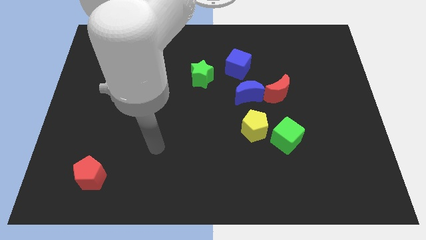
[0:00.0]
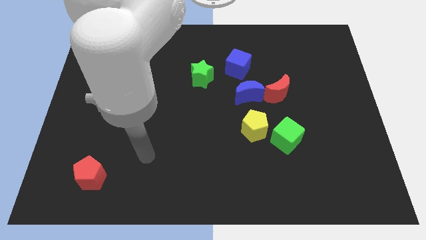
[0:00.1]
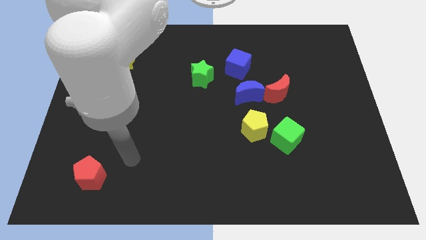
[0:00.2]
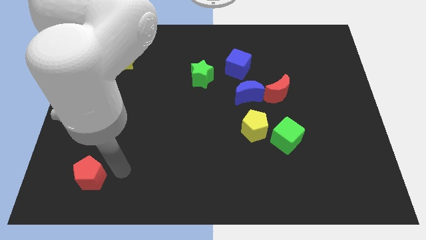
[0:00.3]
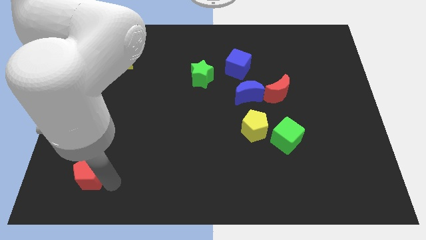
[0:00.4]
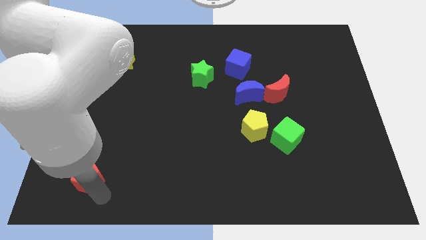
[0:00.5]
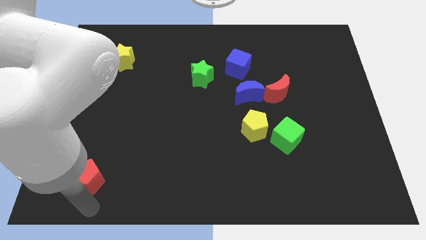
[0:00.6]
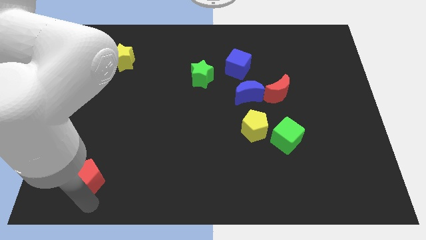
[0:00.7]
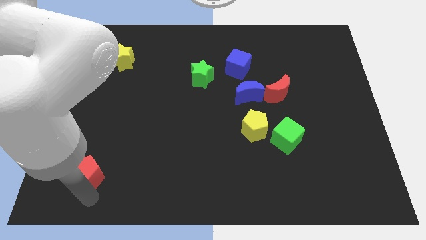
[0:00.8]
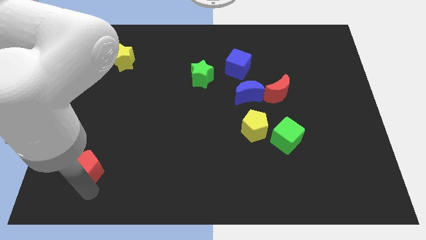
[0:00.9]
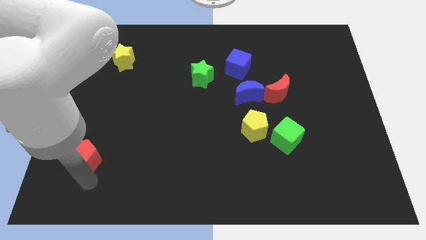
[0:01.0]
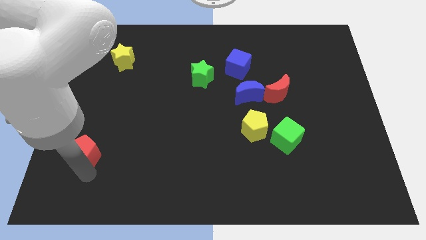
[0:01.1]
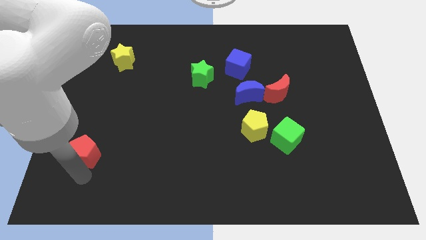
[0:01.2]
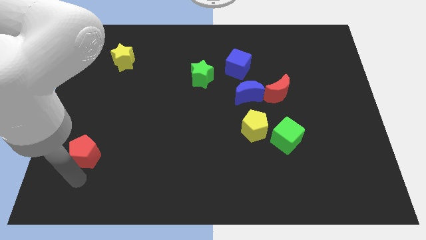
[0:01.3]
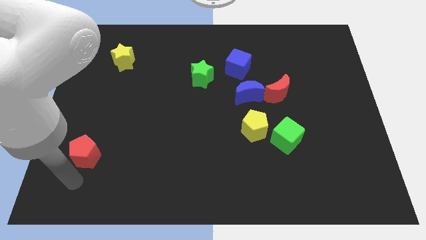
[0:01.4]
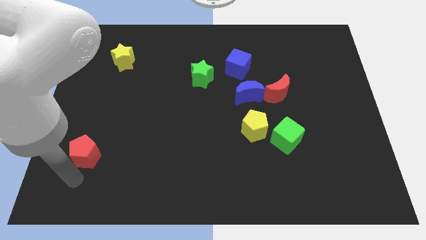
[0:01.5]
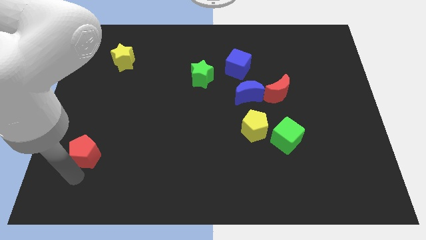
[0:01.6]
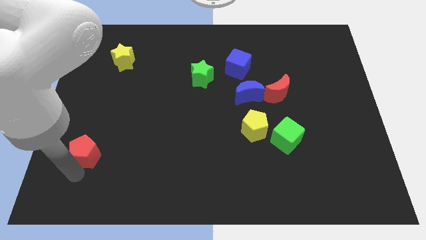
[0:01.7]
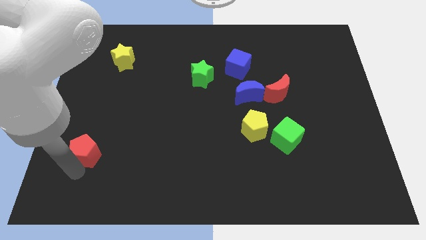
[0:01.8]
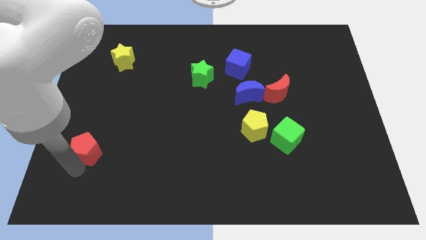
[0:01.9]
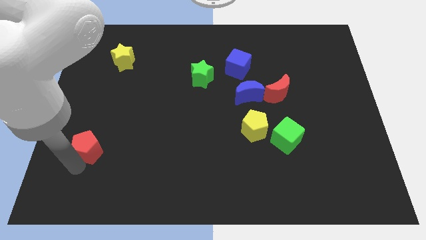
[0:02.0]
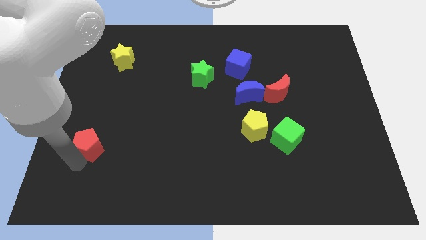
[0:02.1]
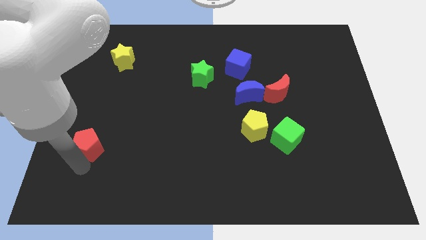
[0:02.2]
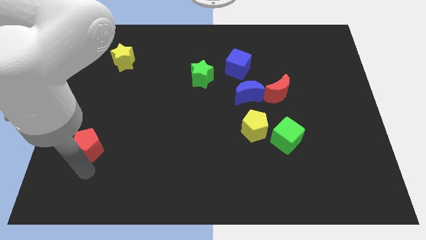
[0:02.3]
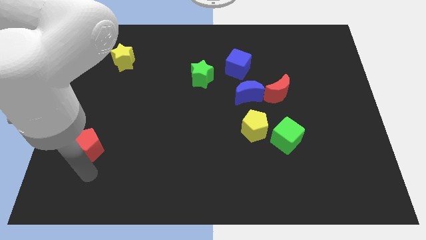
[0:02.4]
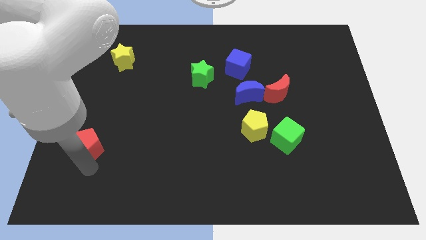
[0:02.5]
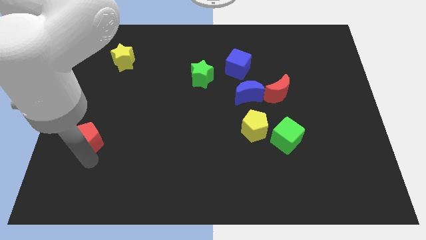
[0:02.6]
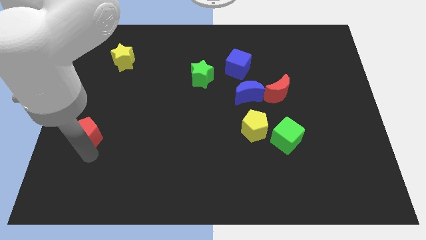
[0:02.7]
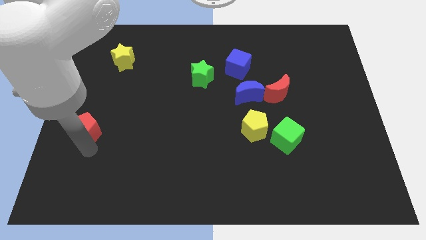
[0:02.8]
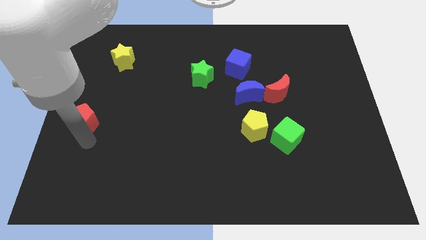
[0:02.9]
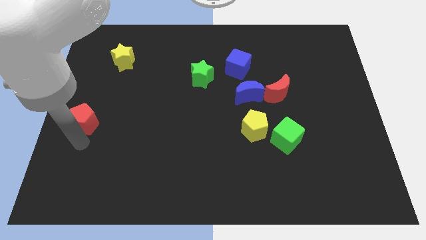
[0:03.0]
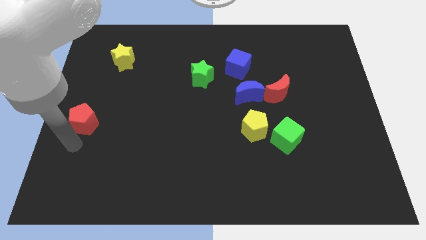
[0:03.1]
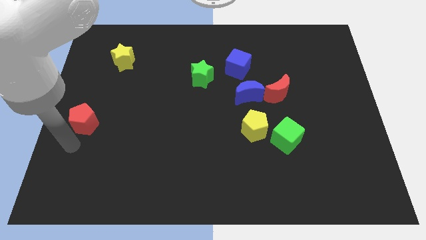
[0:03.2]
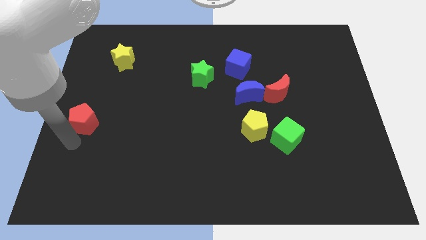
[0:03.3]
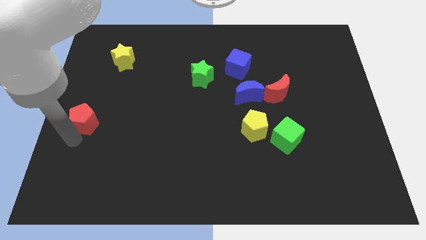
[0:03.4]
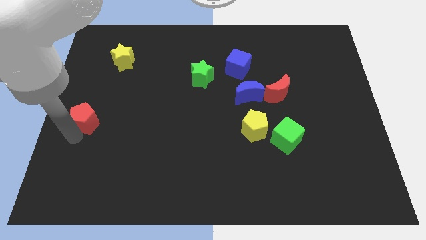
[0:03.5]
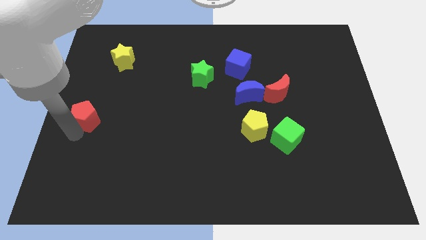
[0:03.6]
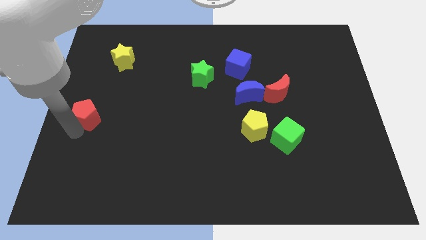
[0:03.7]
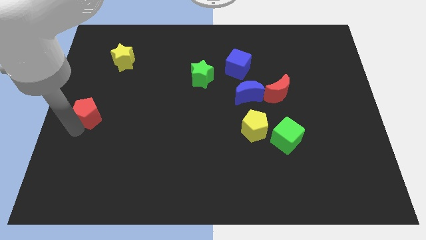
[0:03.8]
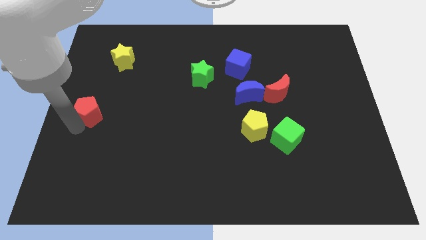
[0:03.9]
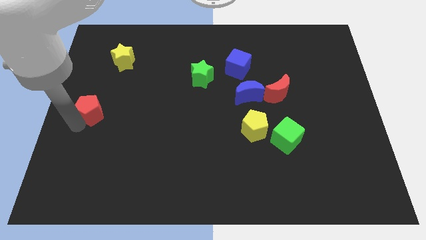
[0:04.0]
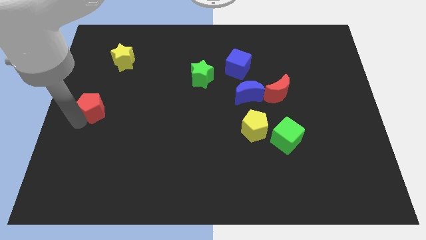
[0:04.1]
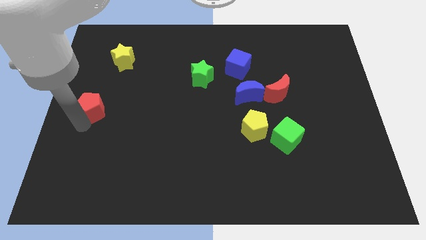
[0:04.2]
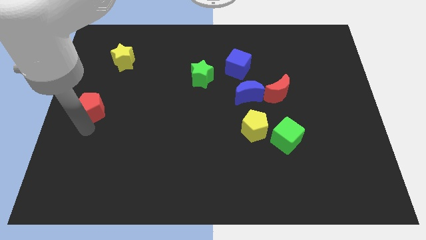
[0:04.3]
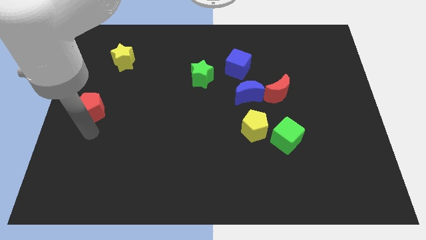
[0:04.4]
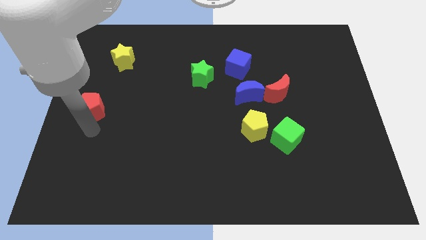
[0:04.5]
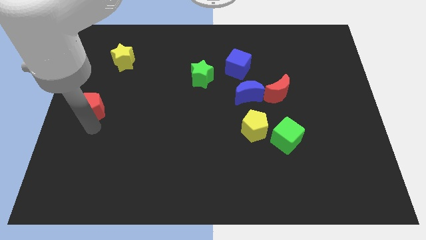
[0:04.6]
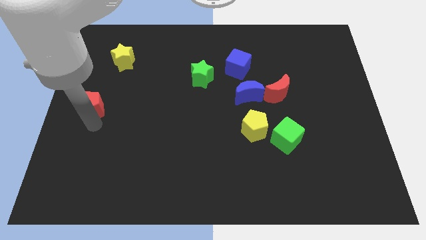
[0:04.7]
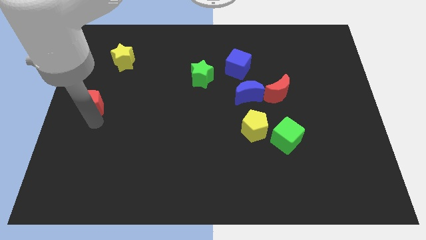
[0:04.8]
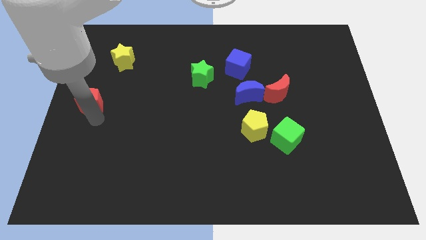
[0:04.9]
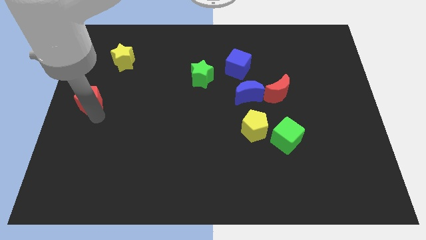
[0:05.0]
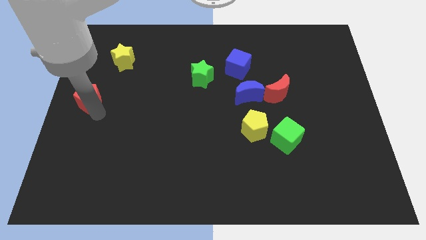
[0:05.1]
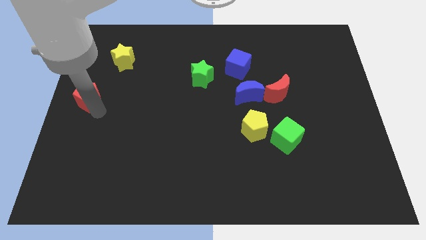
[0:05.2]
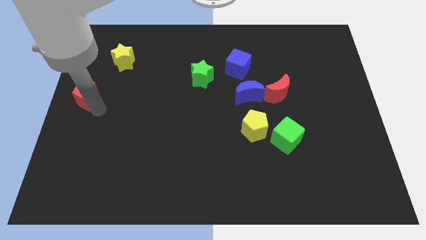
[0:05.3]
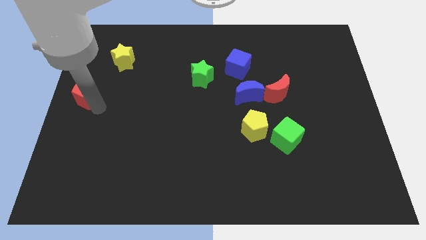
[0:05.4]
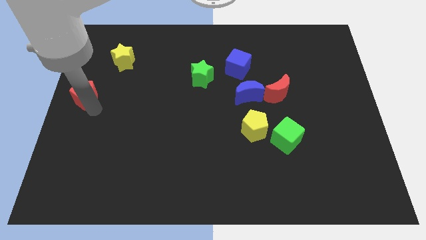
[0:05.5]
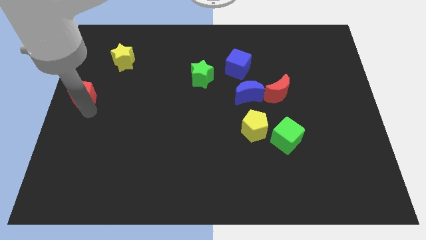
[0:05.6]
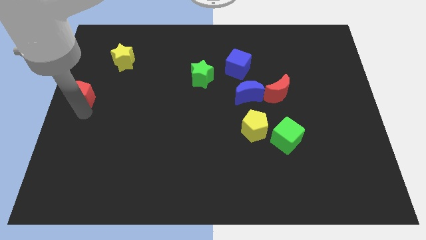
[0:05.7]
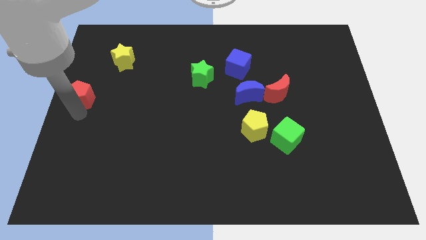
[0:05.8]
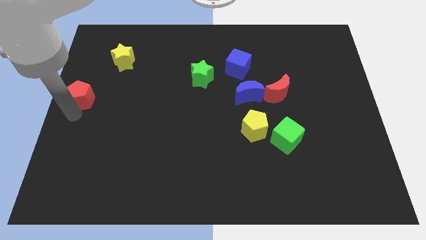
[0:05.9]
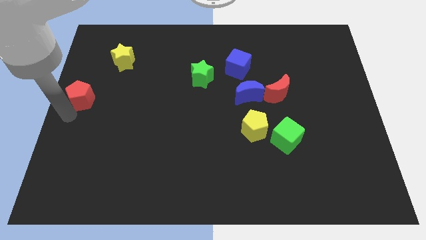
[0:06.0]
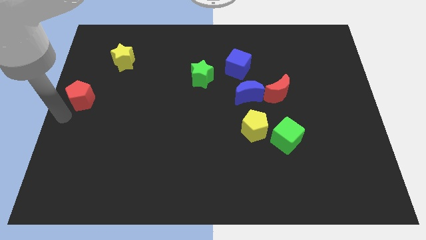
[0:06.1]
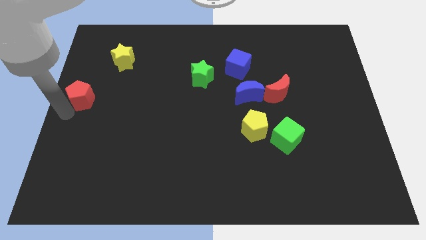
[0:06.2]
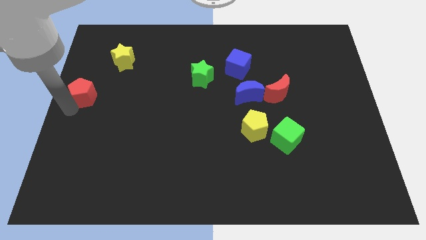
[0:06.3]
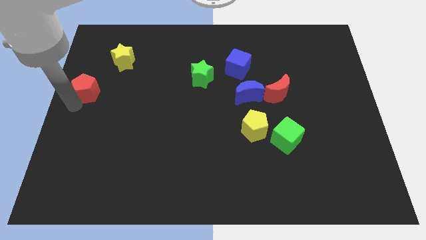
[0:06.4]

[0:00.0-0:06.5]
slide the red pentagon diagonally down and to the left of the yellow star
